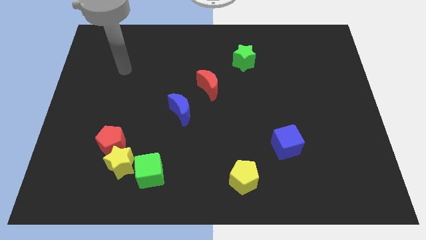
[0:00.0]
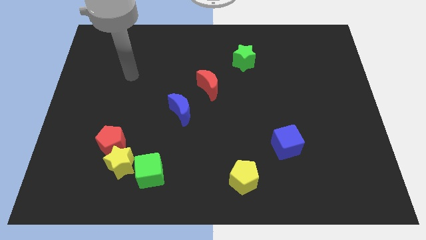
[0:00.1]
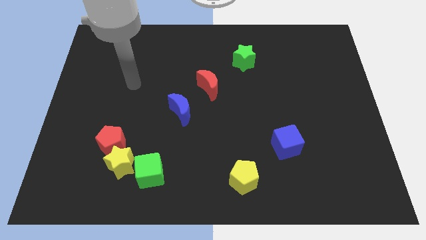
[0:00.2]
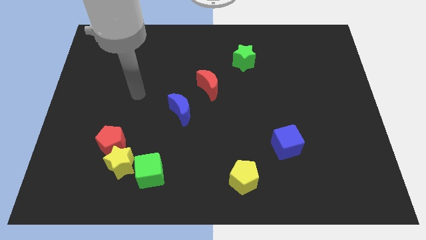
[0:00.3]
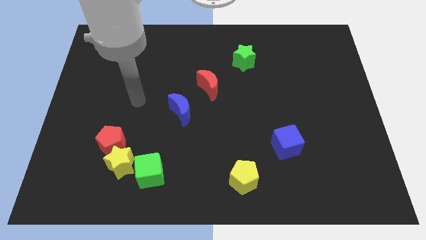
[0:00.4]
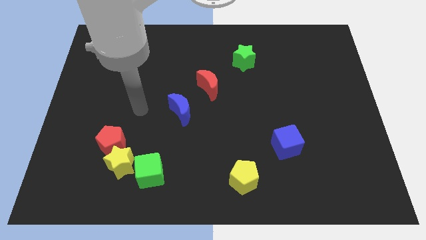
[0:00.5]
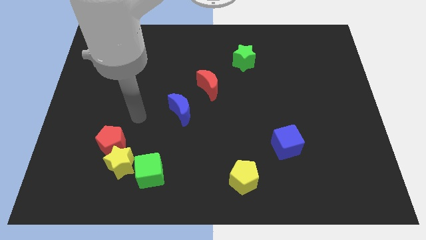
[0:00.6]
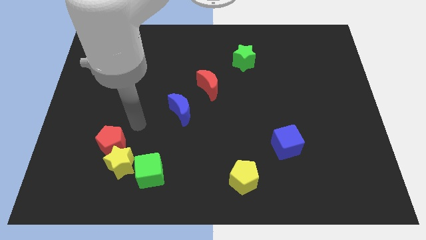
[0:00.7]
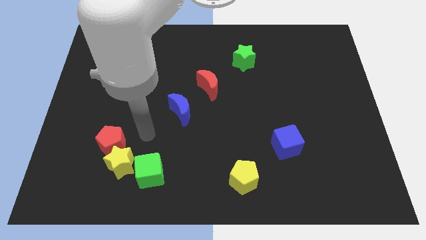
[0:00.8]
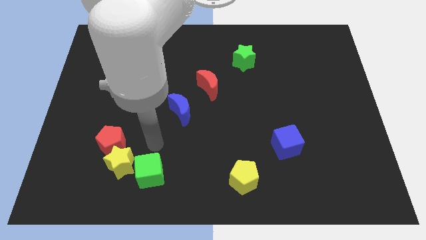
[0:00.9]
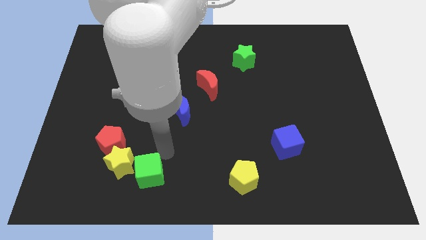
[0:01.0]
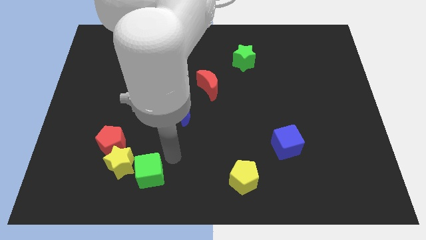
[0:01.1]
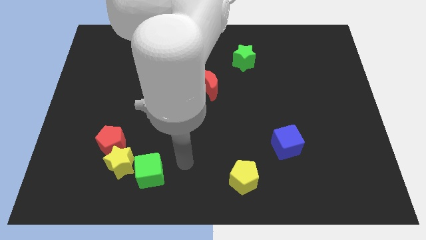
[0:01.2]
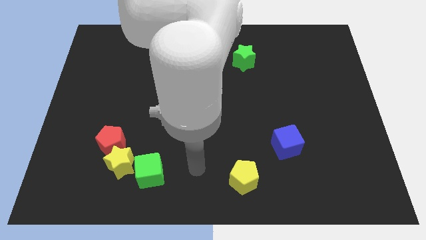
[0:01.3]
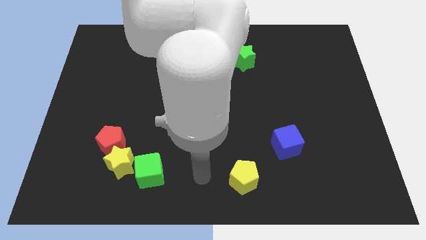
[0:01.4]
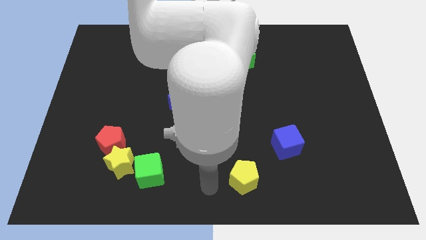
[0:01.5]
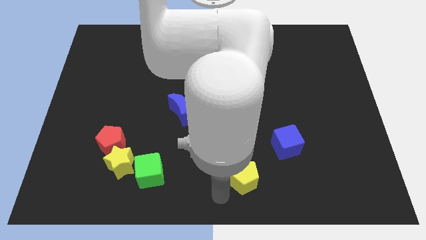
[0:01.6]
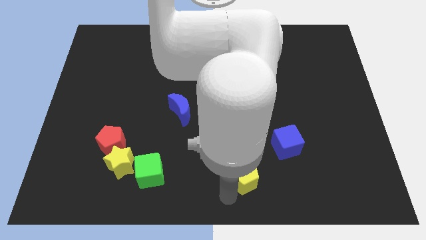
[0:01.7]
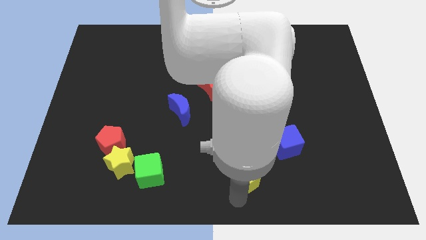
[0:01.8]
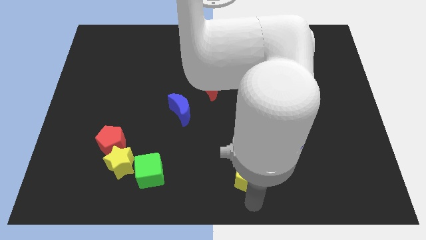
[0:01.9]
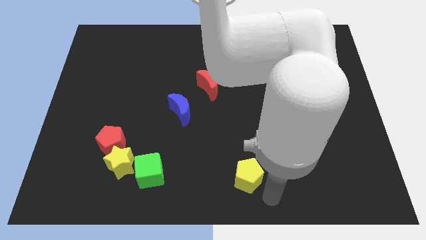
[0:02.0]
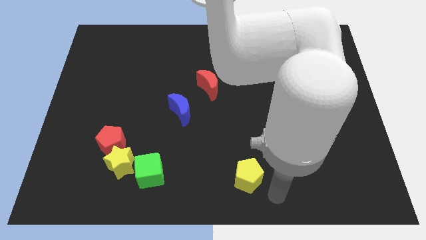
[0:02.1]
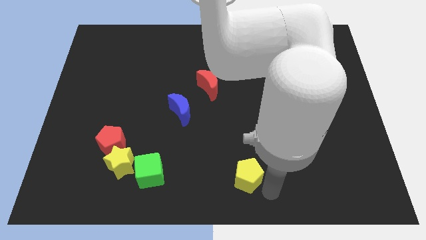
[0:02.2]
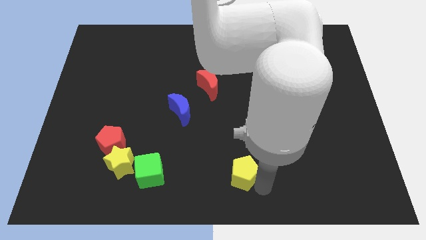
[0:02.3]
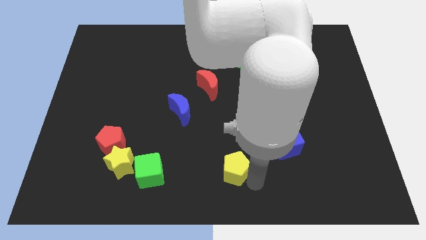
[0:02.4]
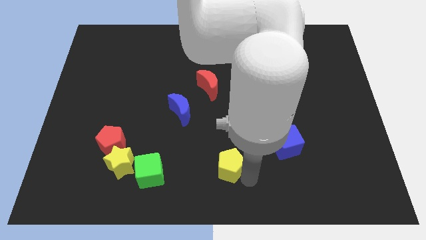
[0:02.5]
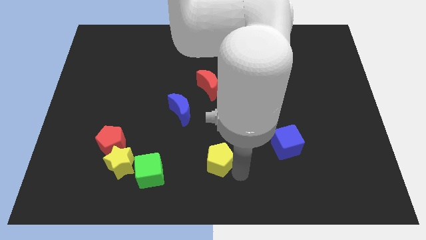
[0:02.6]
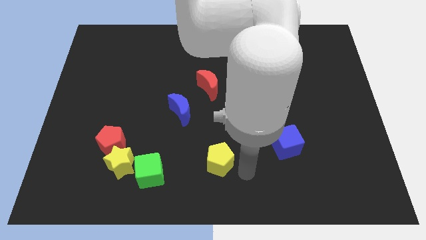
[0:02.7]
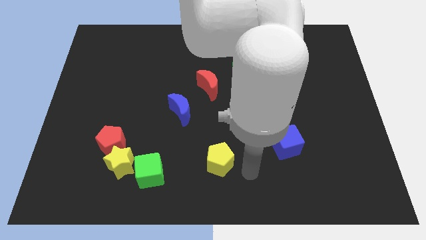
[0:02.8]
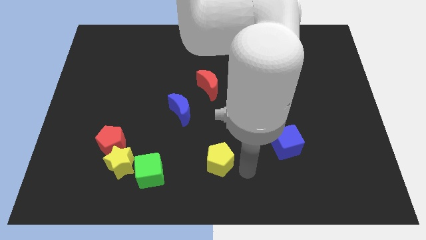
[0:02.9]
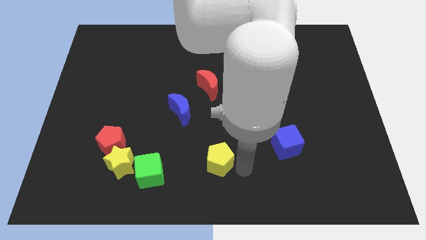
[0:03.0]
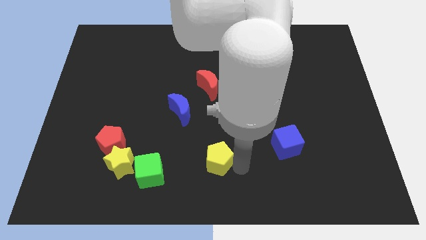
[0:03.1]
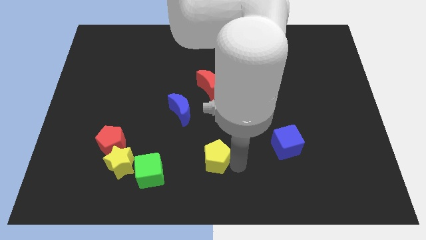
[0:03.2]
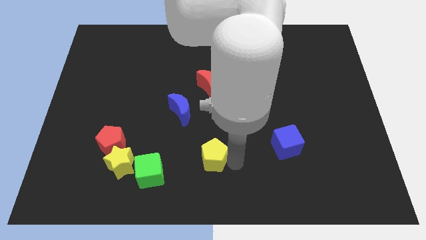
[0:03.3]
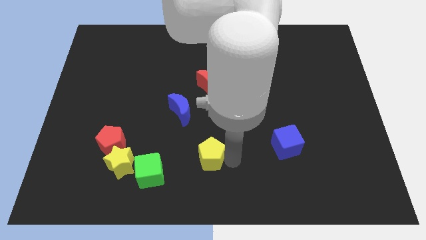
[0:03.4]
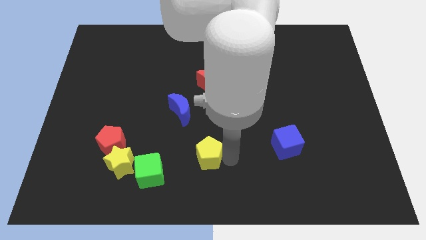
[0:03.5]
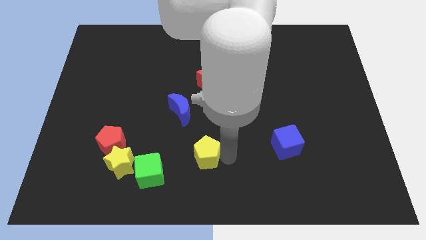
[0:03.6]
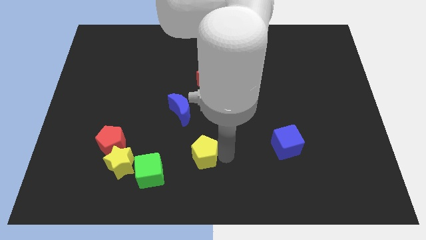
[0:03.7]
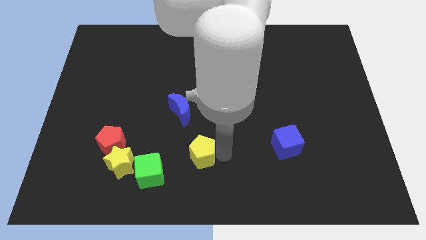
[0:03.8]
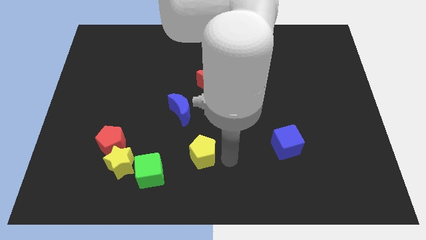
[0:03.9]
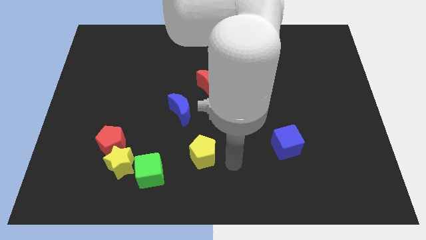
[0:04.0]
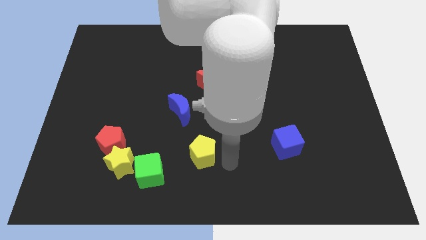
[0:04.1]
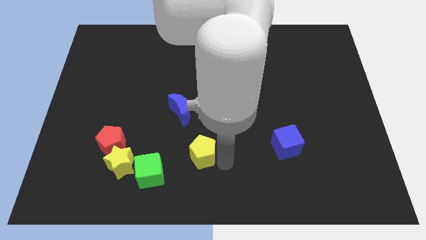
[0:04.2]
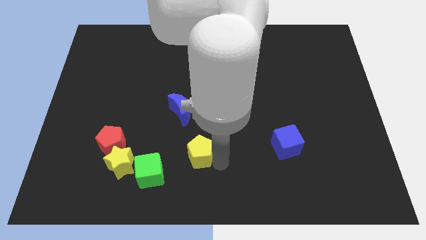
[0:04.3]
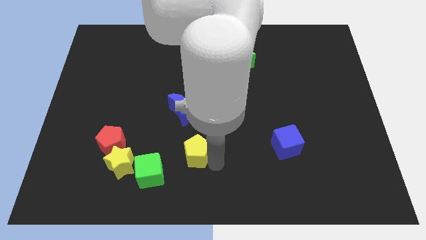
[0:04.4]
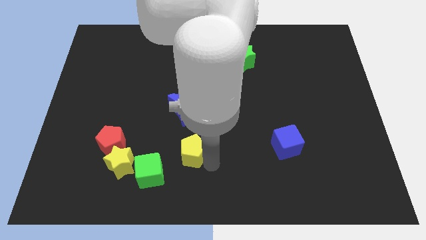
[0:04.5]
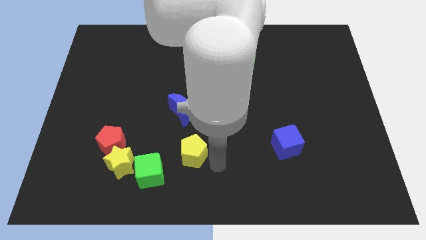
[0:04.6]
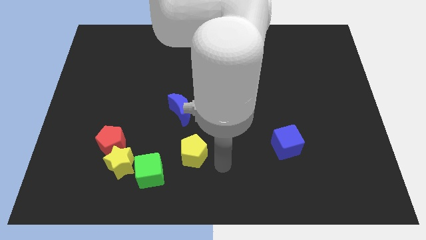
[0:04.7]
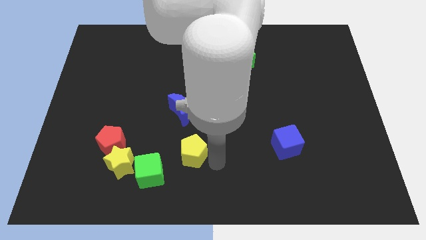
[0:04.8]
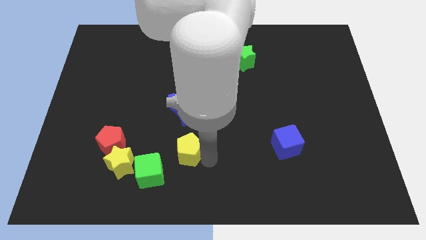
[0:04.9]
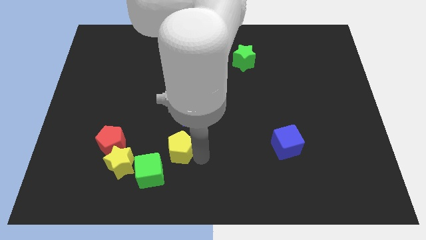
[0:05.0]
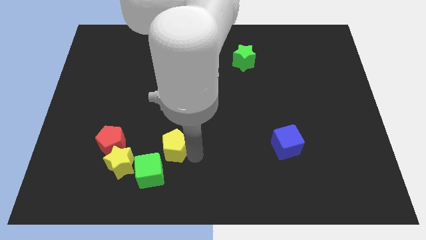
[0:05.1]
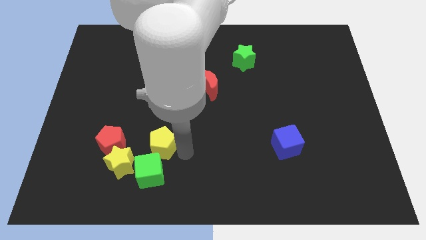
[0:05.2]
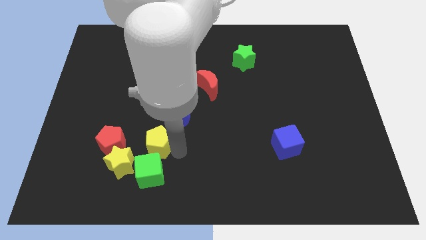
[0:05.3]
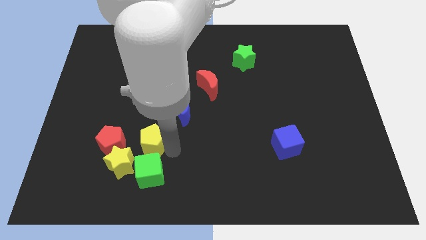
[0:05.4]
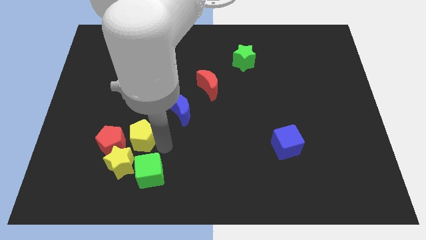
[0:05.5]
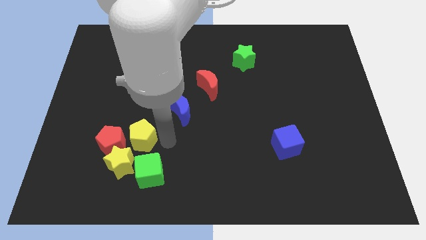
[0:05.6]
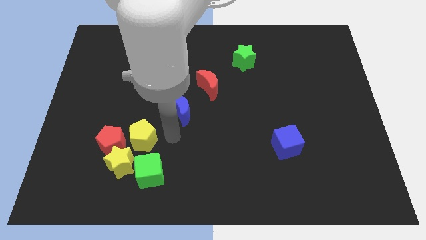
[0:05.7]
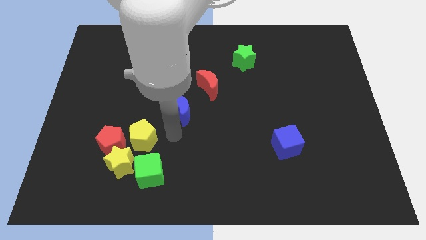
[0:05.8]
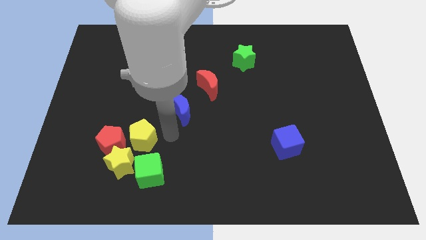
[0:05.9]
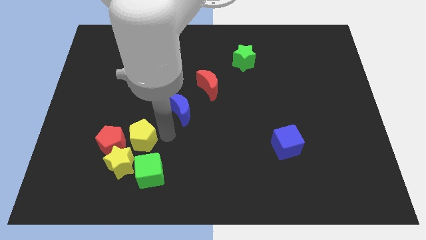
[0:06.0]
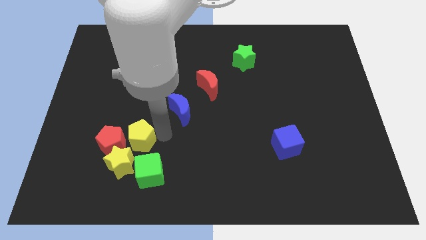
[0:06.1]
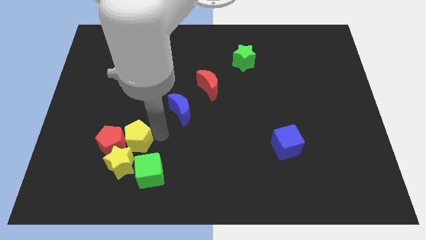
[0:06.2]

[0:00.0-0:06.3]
put the yellow pentagon towards the red pentagon

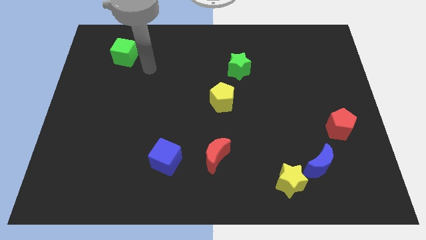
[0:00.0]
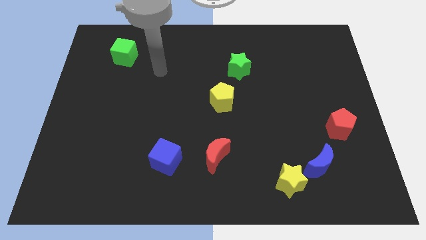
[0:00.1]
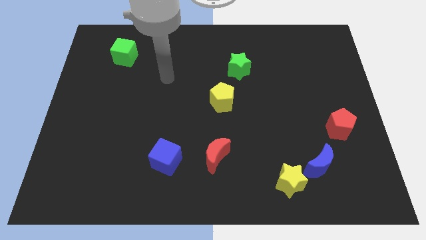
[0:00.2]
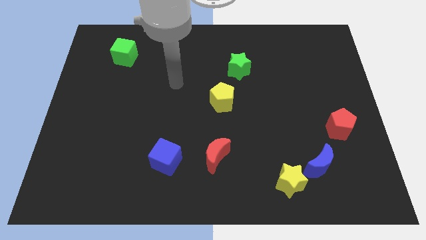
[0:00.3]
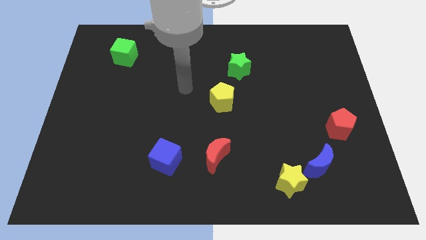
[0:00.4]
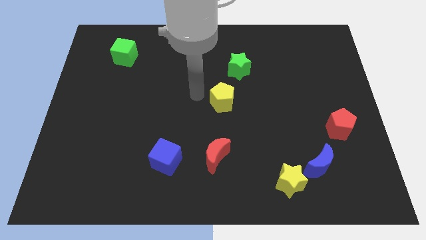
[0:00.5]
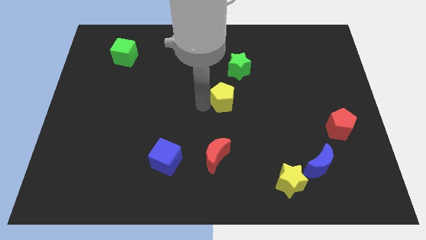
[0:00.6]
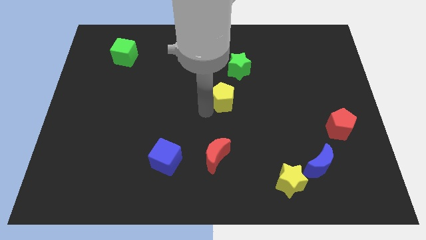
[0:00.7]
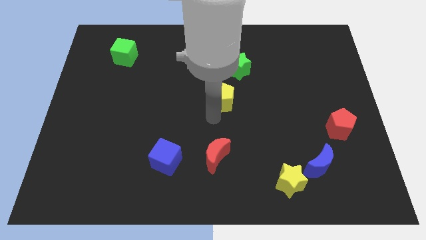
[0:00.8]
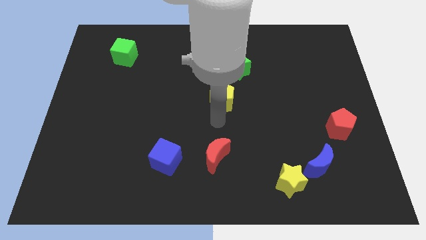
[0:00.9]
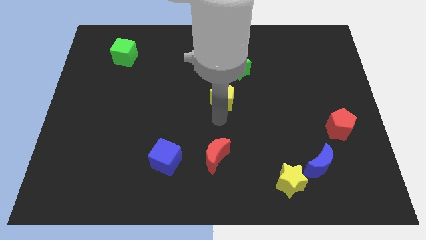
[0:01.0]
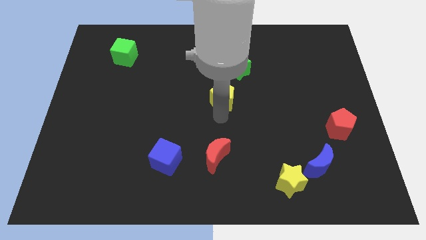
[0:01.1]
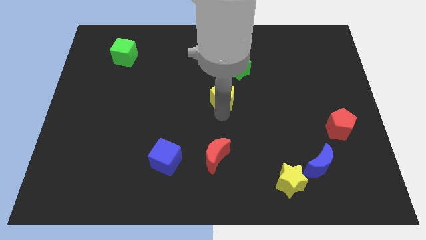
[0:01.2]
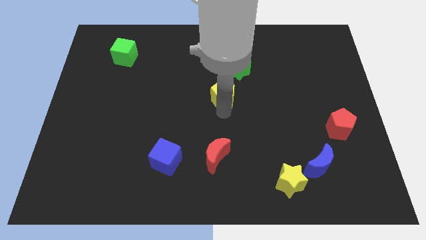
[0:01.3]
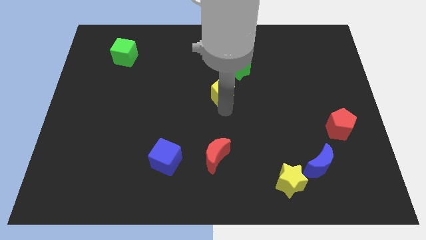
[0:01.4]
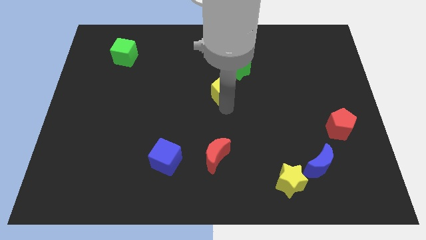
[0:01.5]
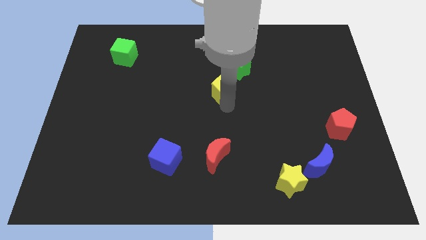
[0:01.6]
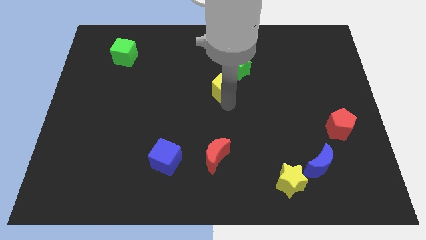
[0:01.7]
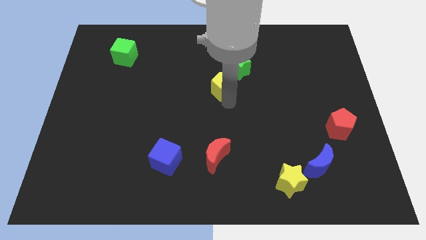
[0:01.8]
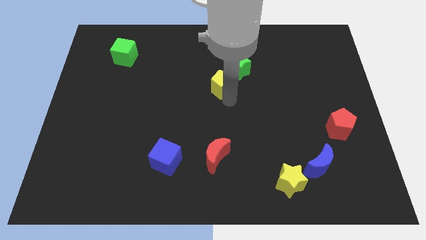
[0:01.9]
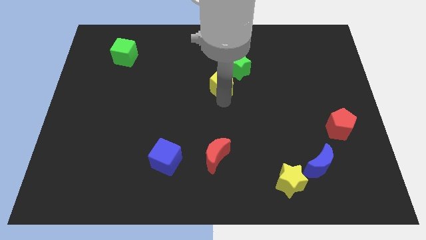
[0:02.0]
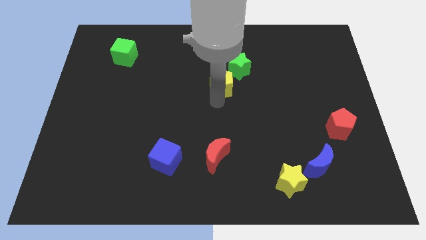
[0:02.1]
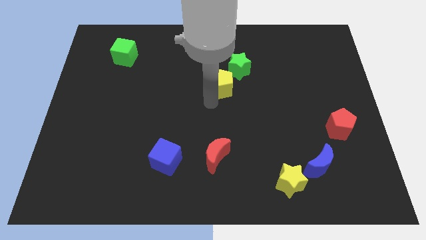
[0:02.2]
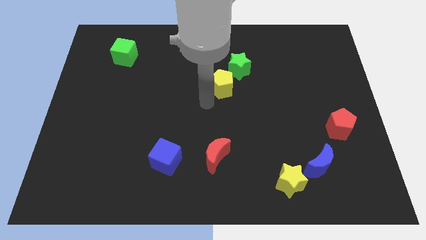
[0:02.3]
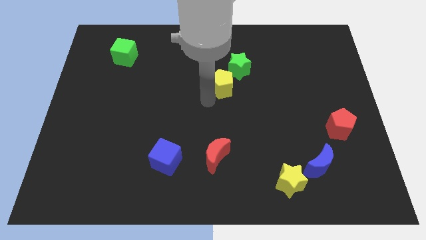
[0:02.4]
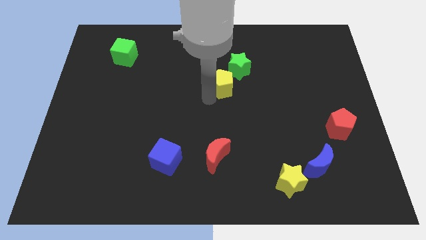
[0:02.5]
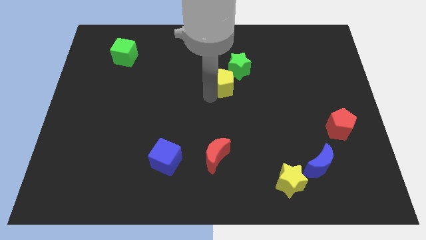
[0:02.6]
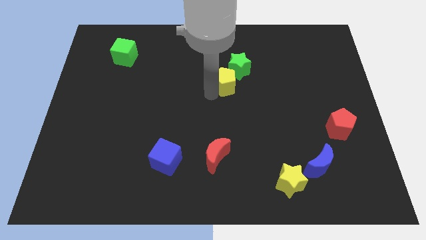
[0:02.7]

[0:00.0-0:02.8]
slide the yellow pentagon close to the green star
